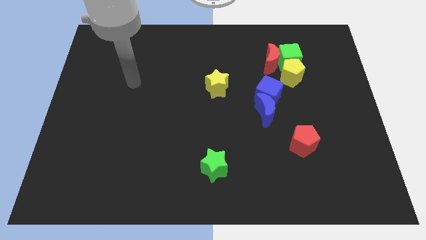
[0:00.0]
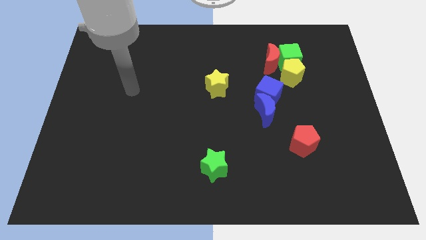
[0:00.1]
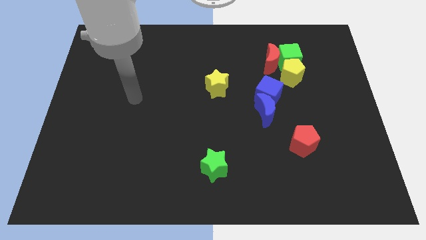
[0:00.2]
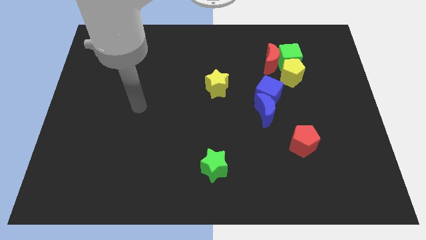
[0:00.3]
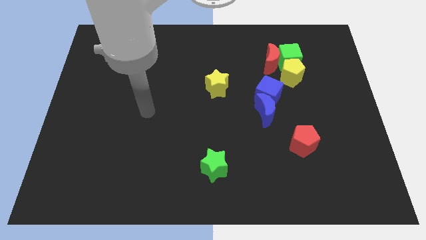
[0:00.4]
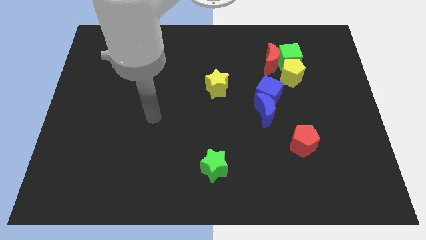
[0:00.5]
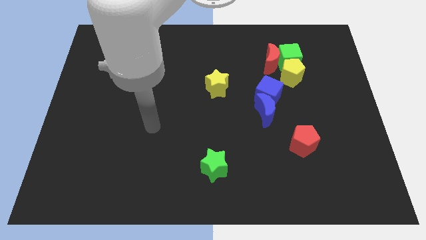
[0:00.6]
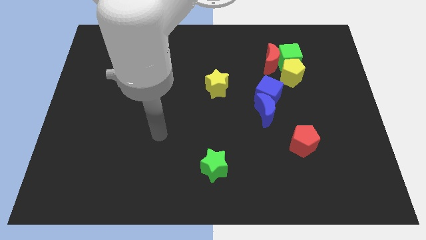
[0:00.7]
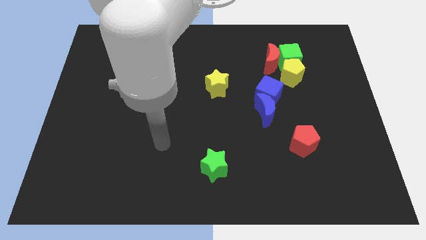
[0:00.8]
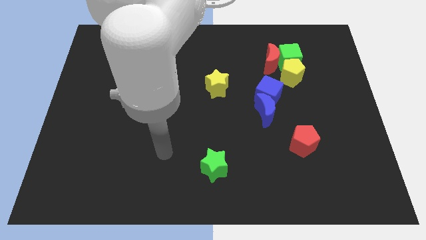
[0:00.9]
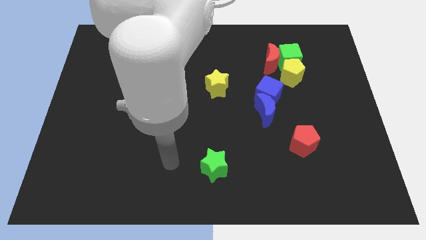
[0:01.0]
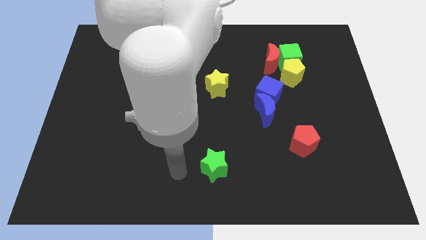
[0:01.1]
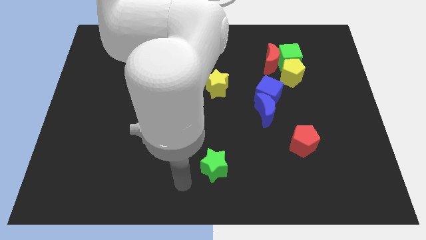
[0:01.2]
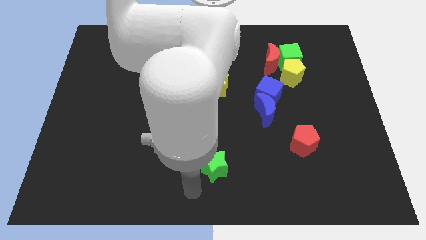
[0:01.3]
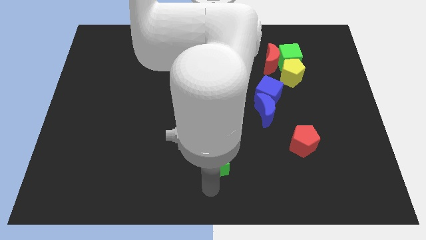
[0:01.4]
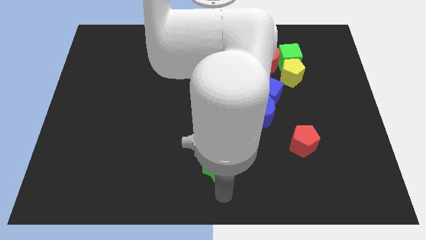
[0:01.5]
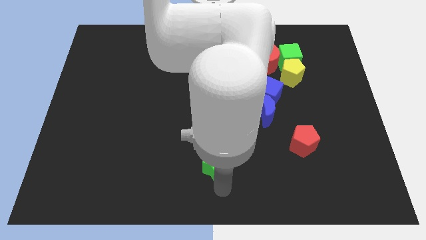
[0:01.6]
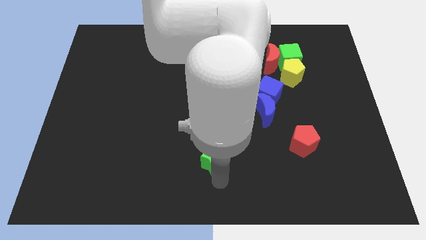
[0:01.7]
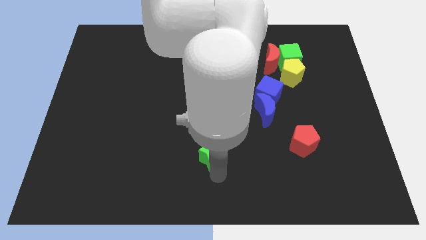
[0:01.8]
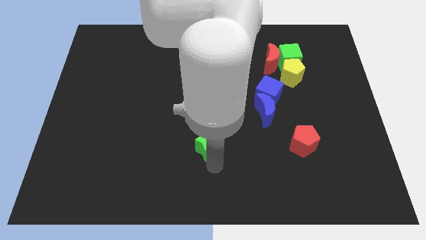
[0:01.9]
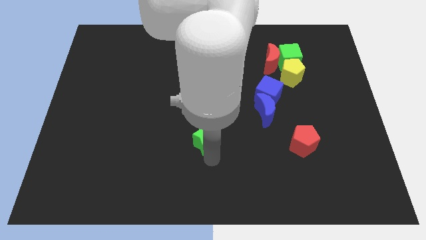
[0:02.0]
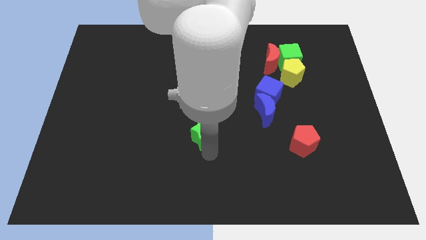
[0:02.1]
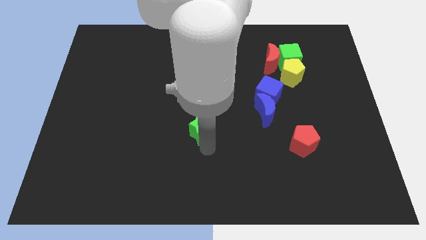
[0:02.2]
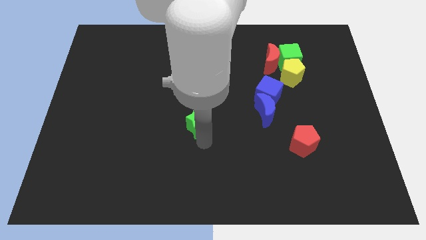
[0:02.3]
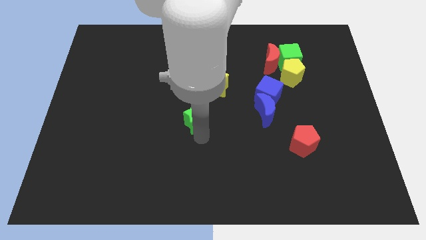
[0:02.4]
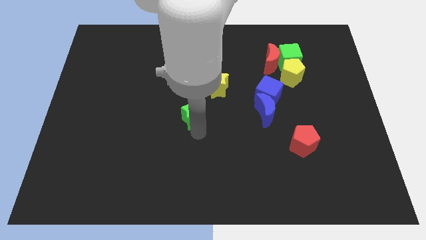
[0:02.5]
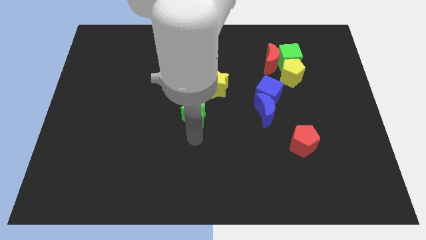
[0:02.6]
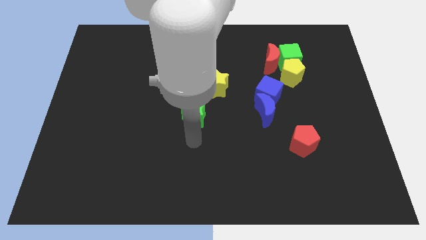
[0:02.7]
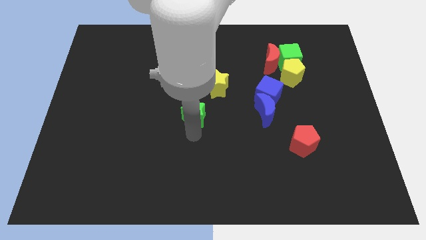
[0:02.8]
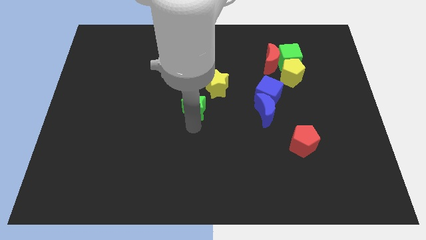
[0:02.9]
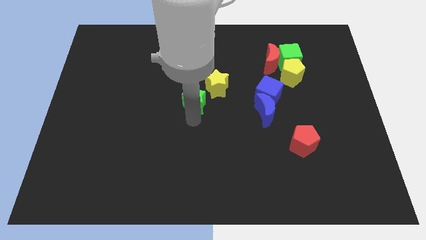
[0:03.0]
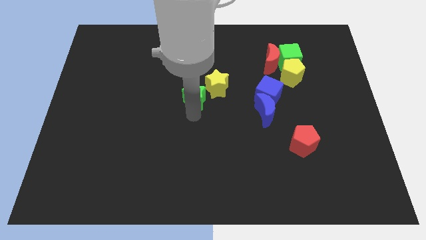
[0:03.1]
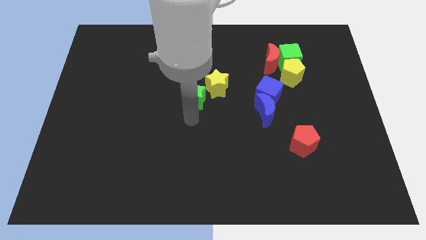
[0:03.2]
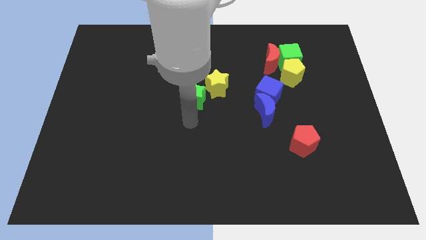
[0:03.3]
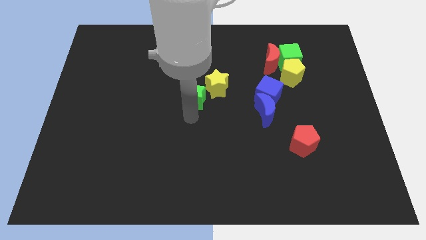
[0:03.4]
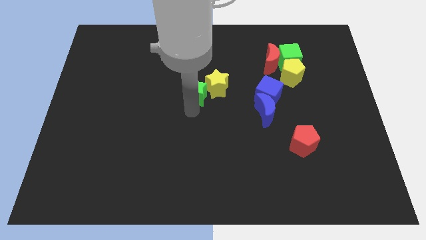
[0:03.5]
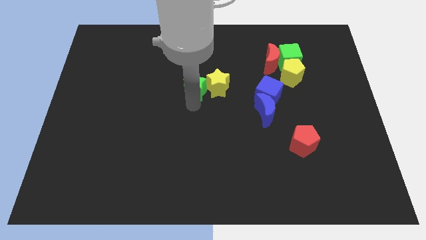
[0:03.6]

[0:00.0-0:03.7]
push the green star up

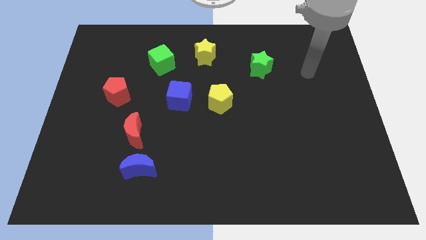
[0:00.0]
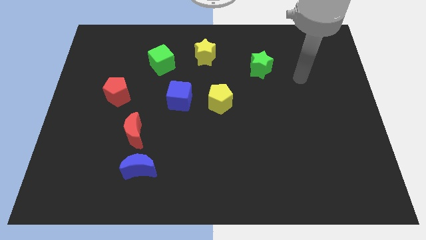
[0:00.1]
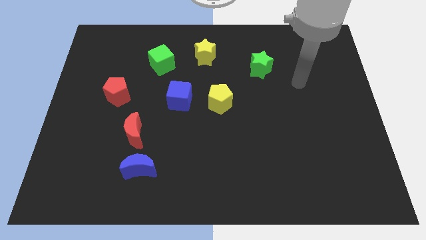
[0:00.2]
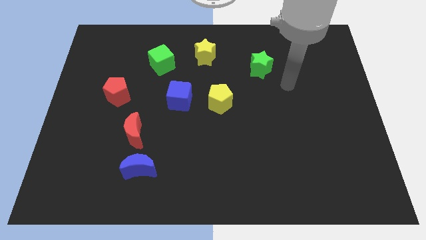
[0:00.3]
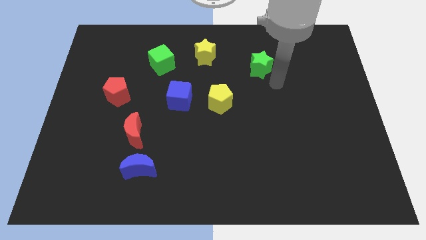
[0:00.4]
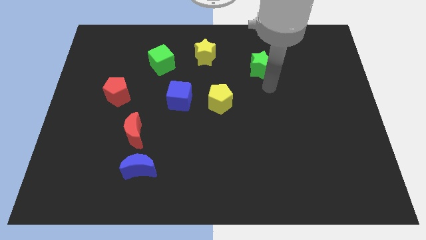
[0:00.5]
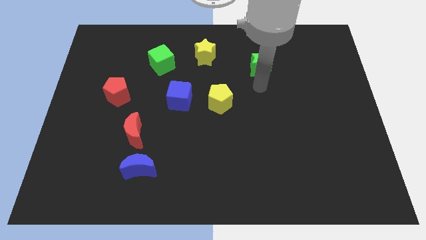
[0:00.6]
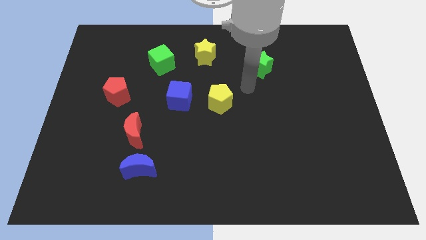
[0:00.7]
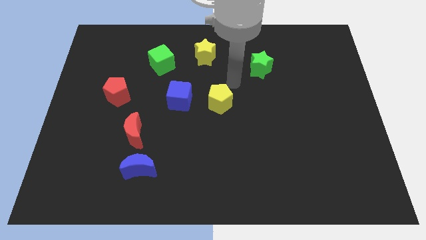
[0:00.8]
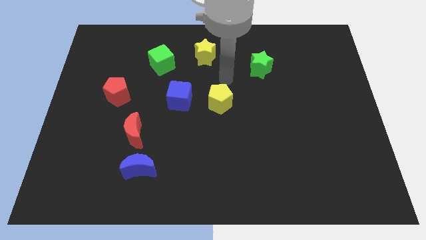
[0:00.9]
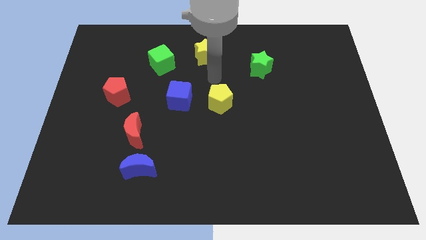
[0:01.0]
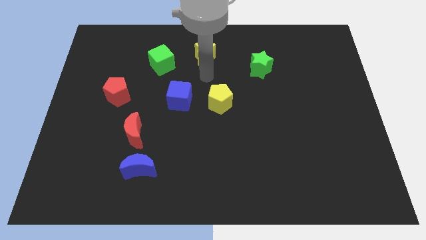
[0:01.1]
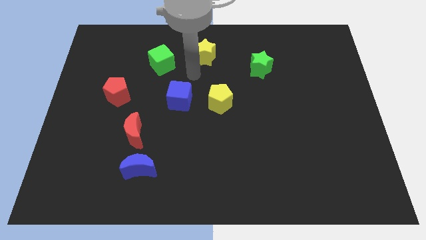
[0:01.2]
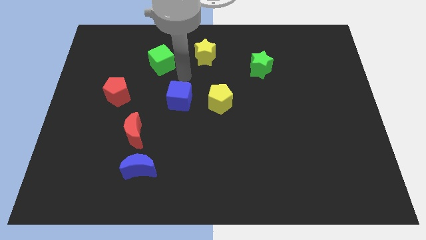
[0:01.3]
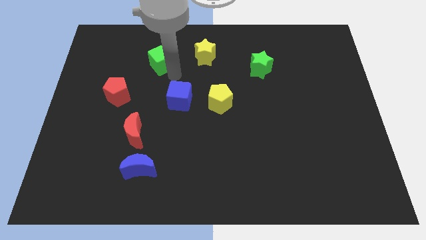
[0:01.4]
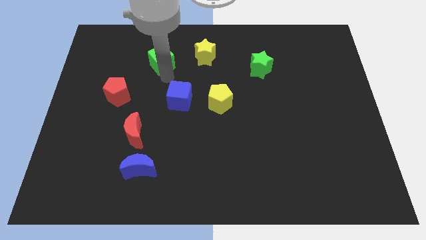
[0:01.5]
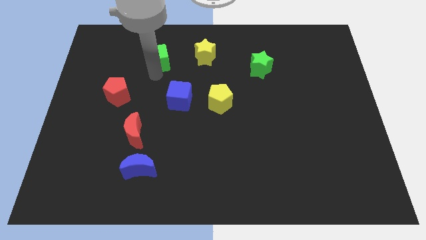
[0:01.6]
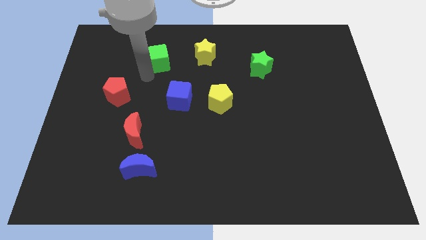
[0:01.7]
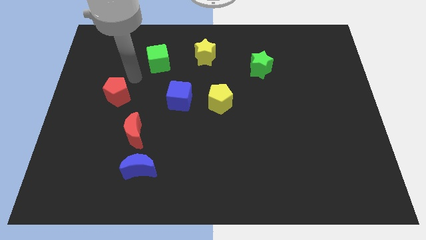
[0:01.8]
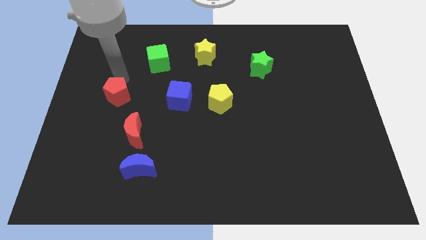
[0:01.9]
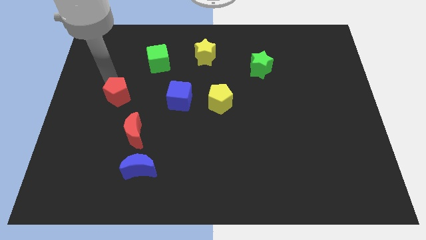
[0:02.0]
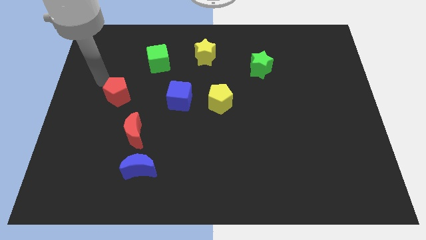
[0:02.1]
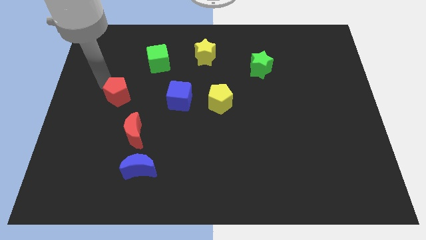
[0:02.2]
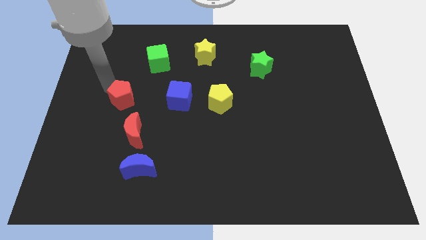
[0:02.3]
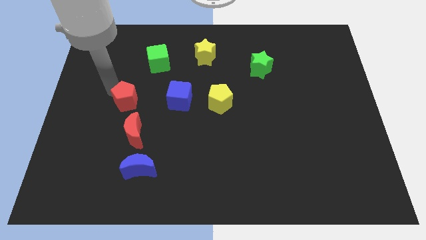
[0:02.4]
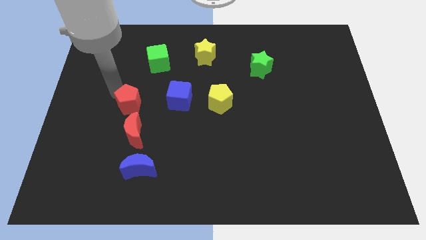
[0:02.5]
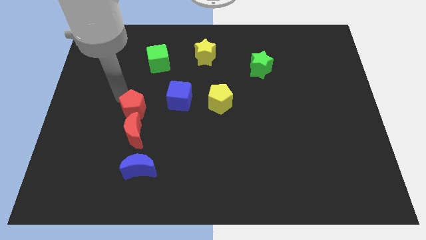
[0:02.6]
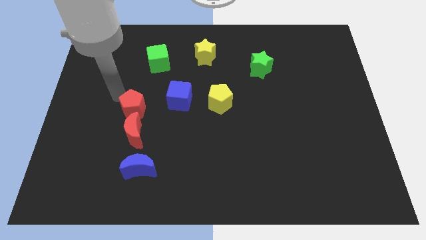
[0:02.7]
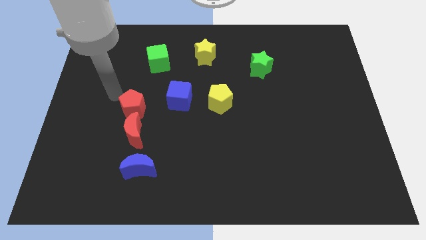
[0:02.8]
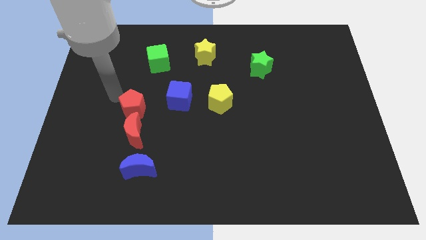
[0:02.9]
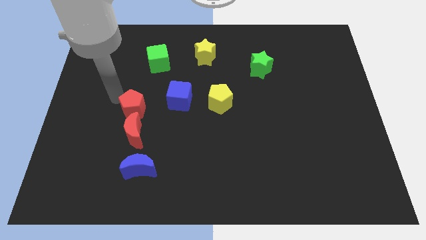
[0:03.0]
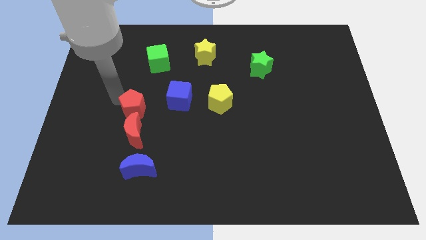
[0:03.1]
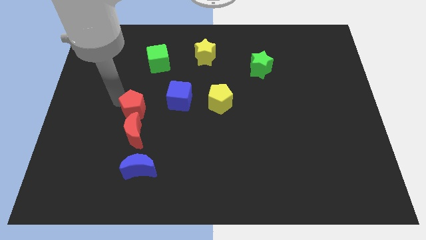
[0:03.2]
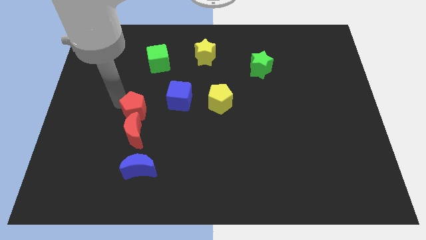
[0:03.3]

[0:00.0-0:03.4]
move the red pentagon a little downwards and to the right diagonally

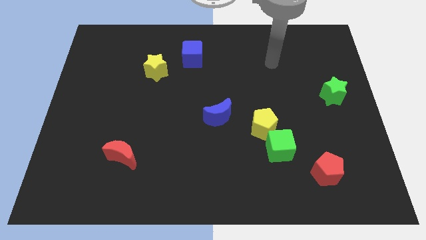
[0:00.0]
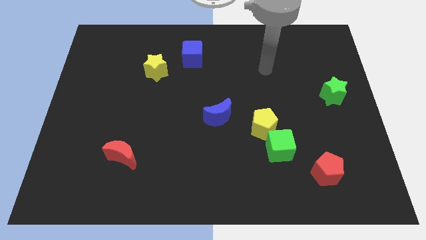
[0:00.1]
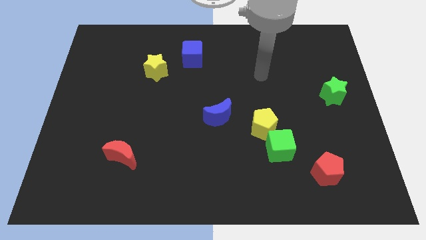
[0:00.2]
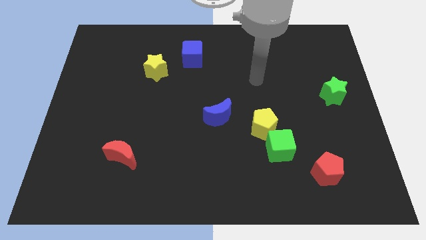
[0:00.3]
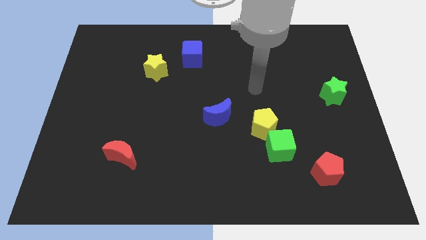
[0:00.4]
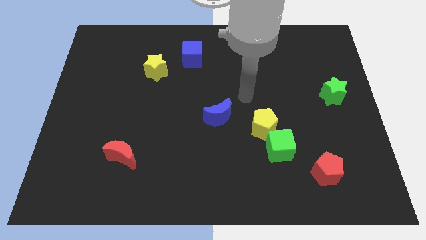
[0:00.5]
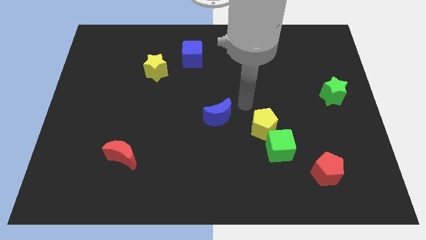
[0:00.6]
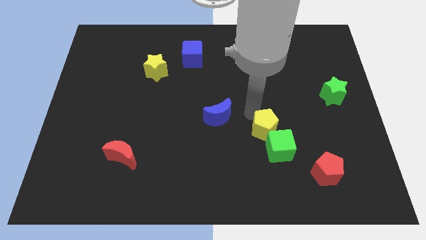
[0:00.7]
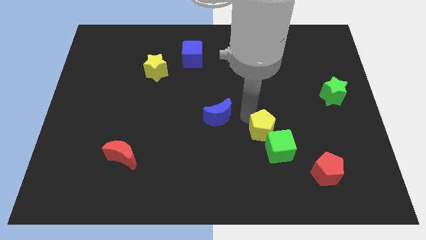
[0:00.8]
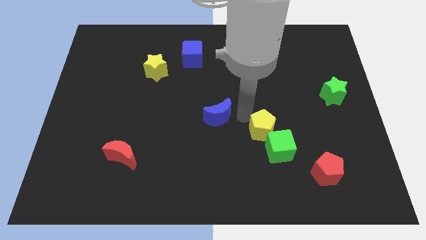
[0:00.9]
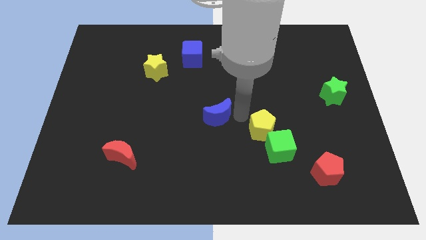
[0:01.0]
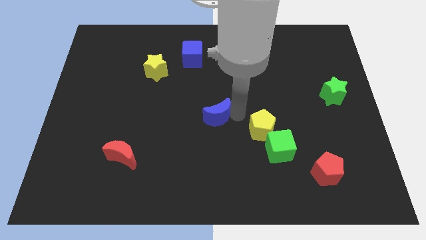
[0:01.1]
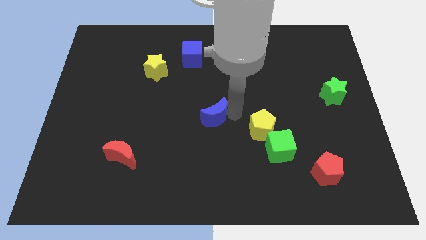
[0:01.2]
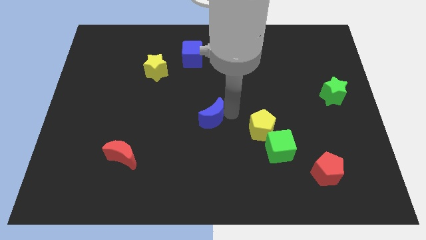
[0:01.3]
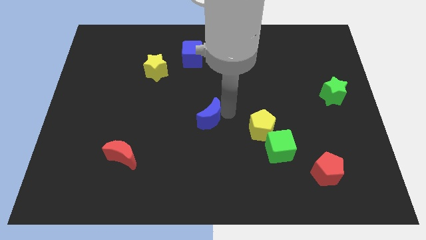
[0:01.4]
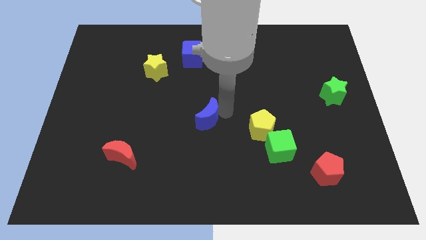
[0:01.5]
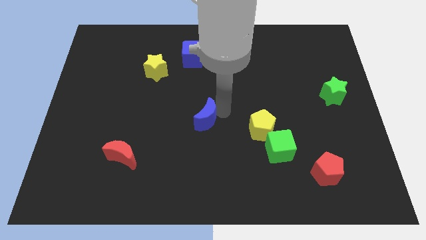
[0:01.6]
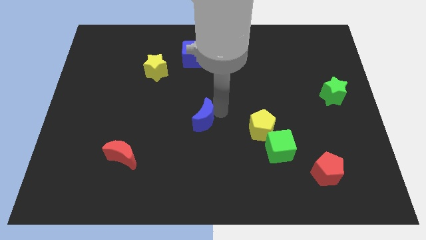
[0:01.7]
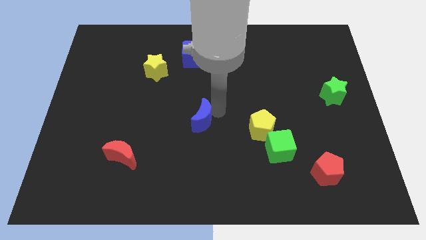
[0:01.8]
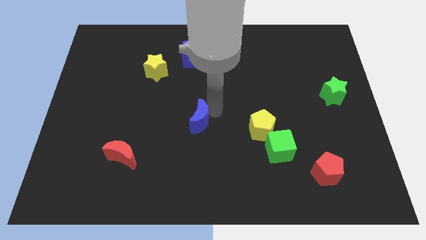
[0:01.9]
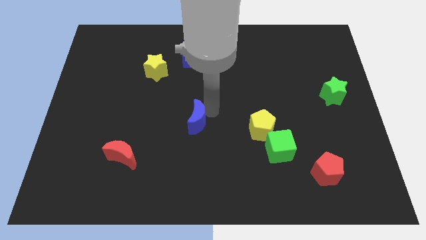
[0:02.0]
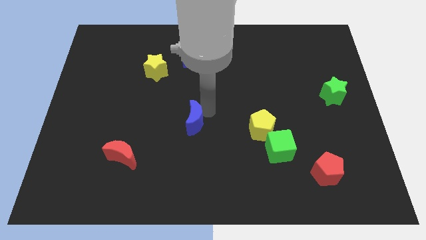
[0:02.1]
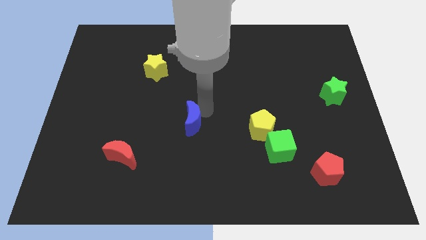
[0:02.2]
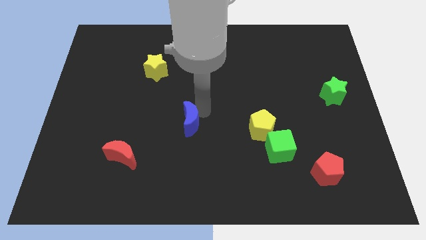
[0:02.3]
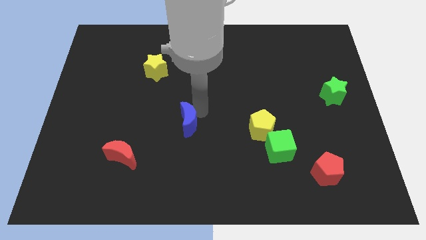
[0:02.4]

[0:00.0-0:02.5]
slightly push the blue moon to the left
